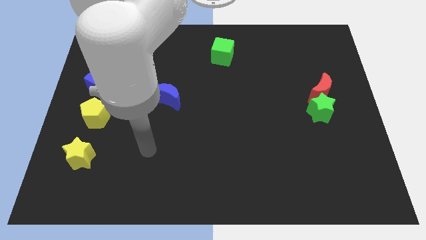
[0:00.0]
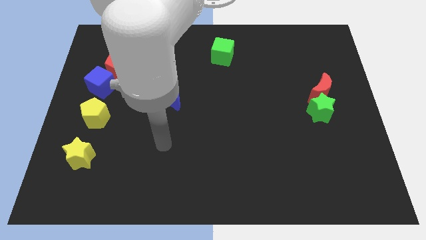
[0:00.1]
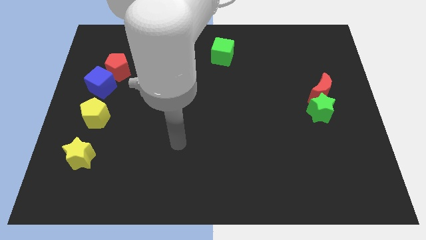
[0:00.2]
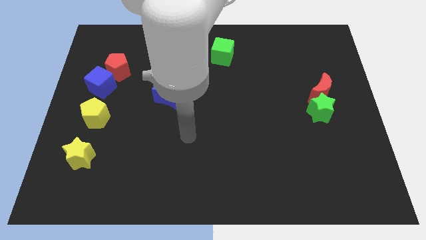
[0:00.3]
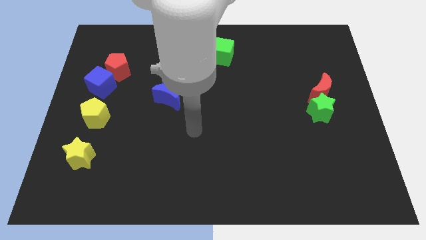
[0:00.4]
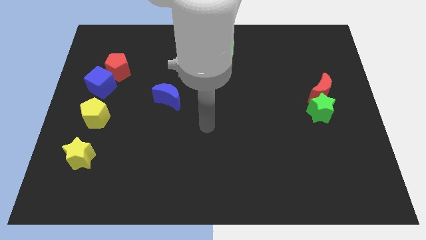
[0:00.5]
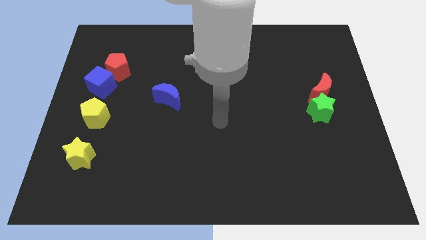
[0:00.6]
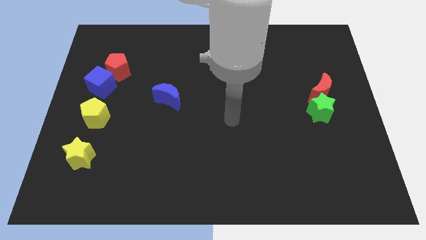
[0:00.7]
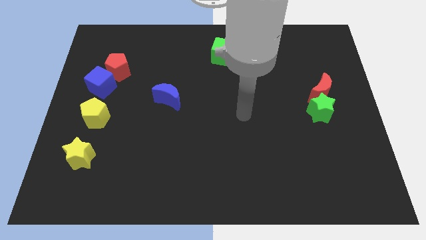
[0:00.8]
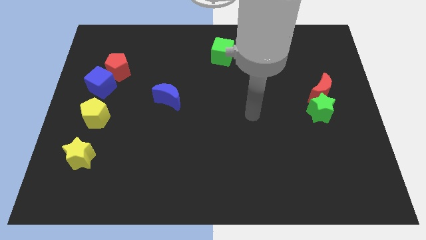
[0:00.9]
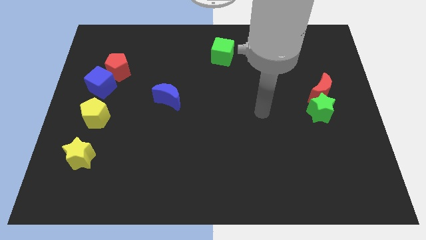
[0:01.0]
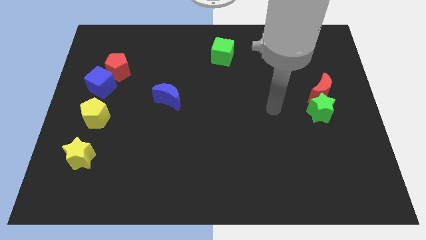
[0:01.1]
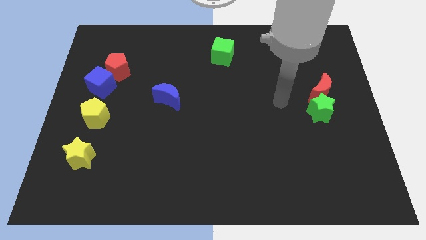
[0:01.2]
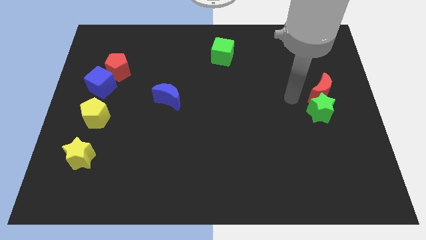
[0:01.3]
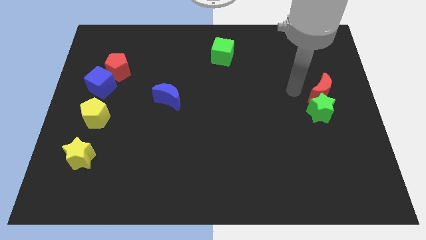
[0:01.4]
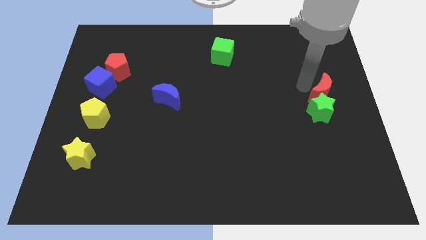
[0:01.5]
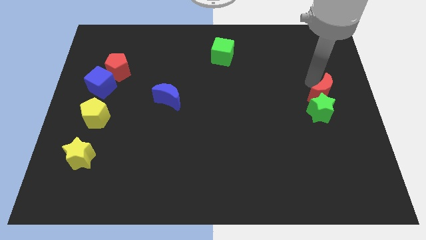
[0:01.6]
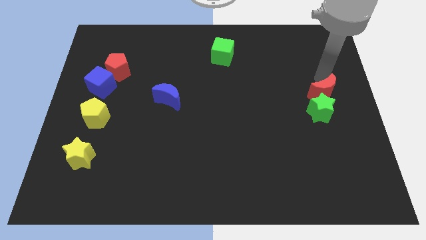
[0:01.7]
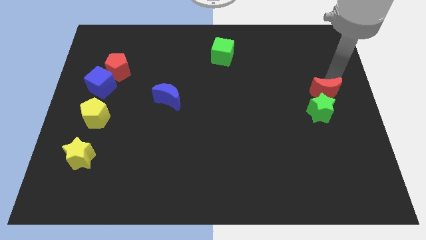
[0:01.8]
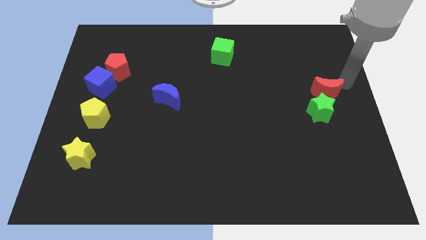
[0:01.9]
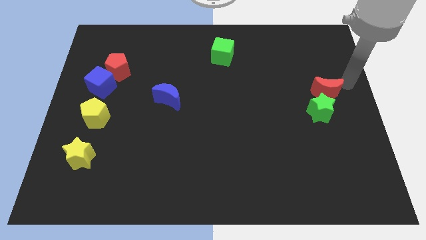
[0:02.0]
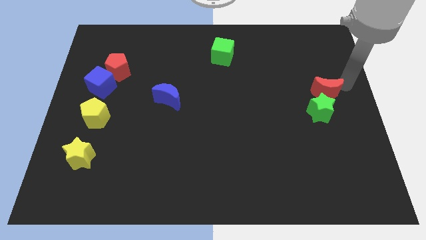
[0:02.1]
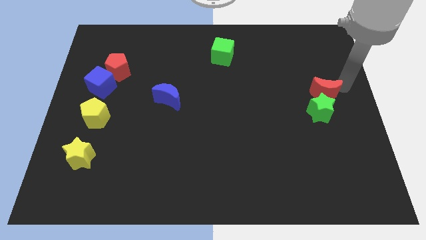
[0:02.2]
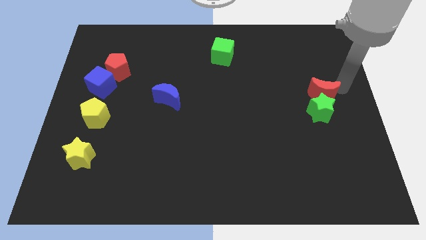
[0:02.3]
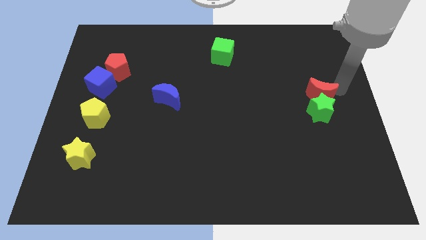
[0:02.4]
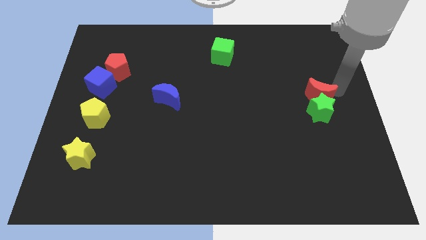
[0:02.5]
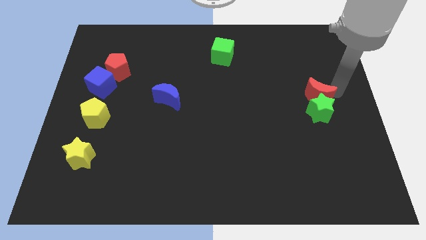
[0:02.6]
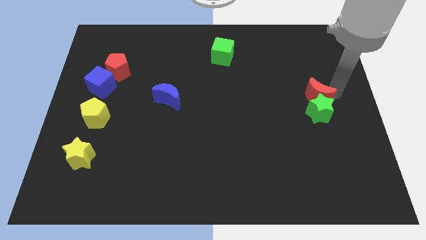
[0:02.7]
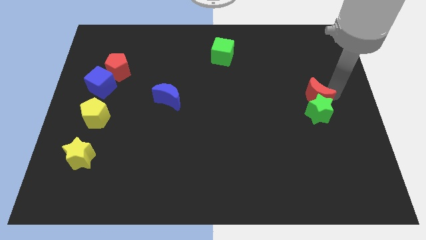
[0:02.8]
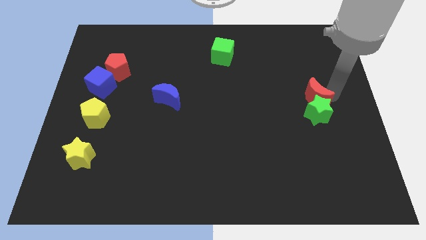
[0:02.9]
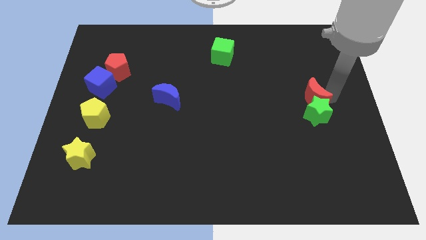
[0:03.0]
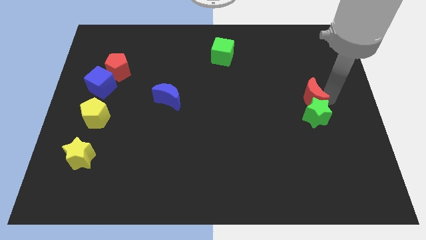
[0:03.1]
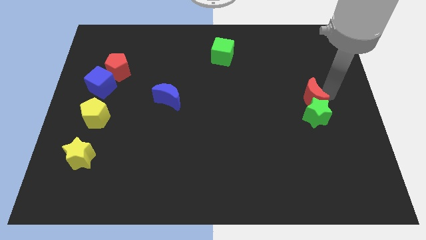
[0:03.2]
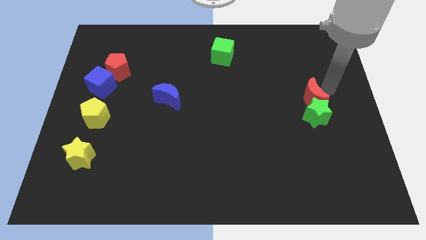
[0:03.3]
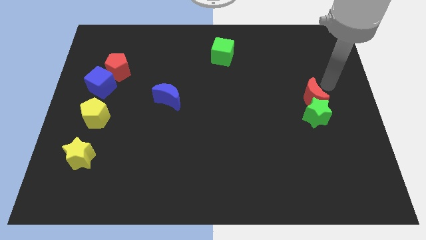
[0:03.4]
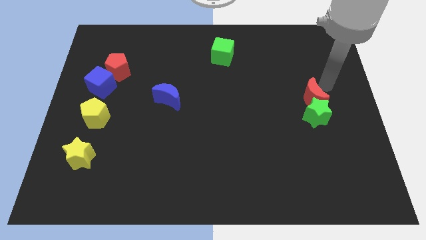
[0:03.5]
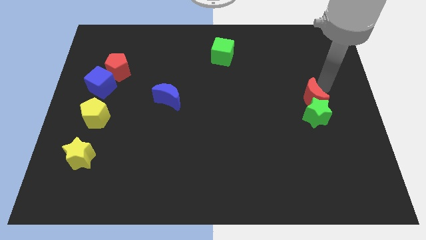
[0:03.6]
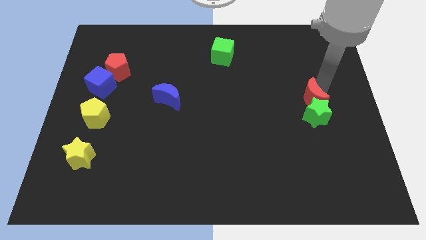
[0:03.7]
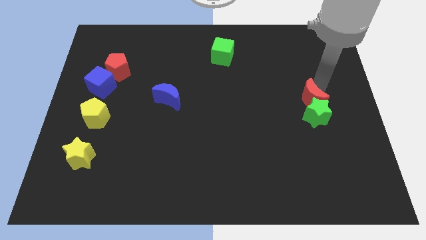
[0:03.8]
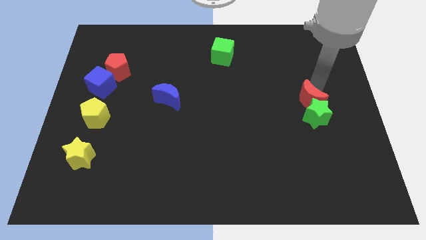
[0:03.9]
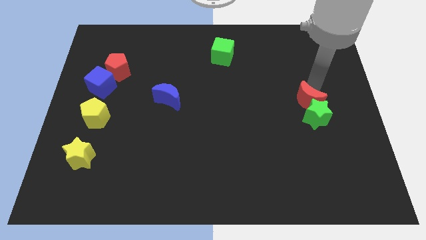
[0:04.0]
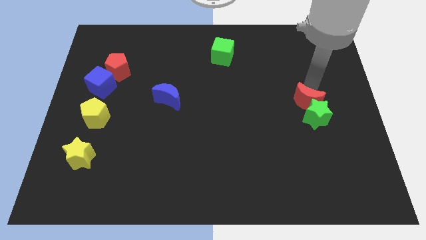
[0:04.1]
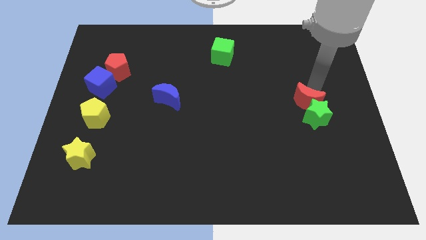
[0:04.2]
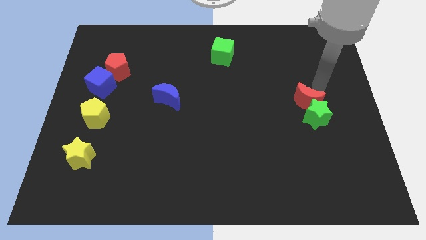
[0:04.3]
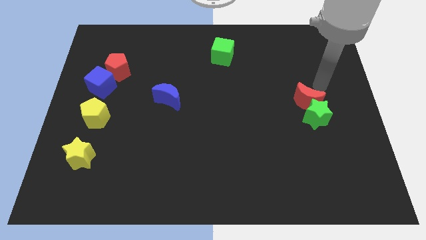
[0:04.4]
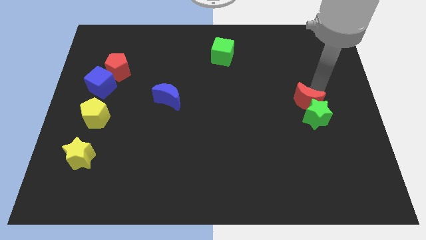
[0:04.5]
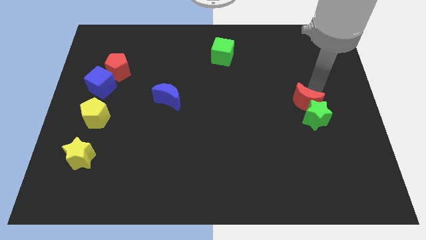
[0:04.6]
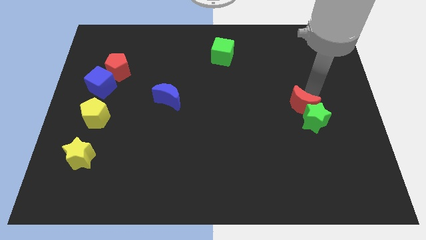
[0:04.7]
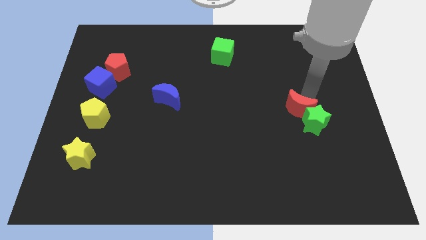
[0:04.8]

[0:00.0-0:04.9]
slightly slide the red moon down and to the left diagonally

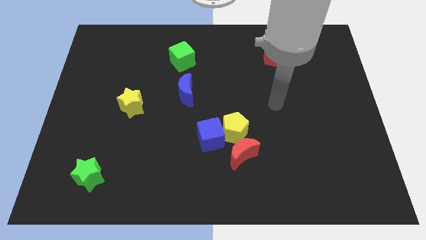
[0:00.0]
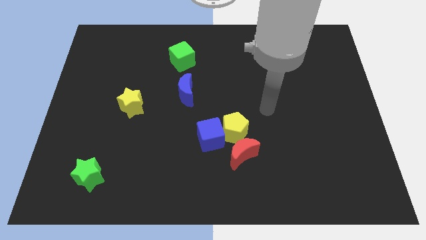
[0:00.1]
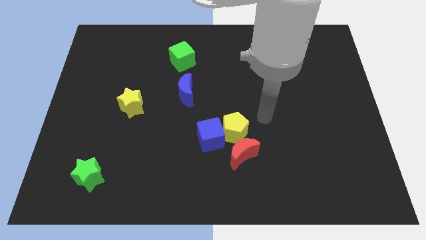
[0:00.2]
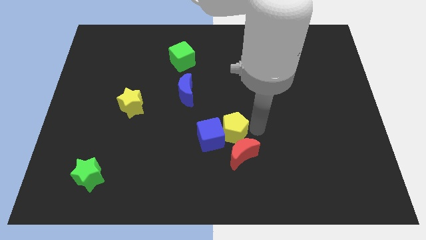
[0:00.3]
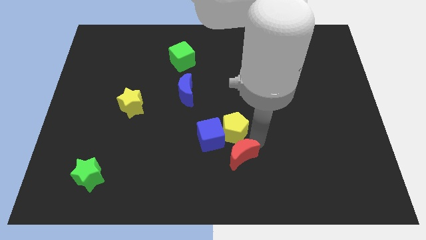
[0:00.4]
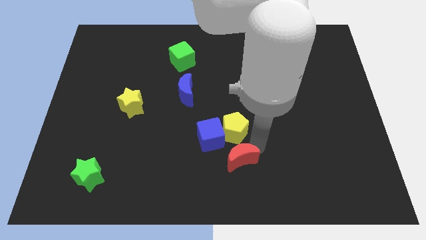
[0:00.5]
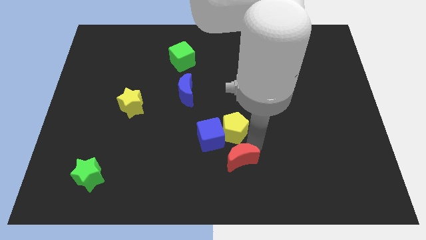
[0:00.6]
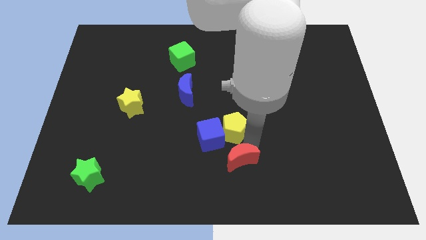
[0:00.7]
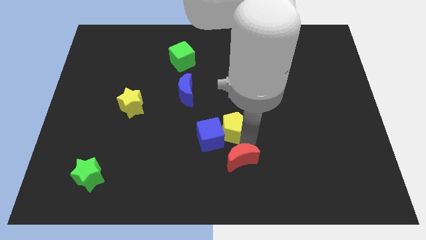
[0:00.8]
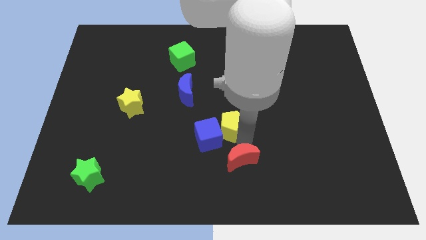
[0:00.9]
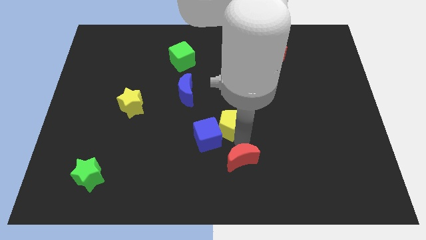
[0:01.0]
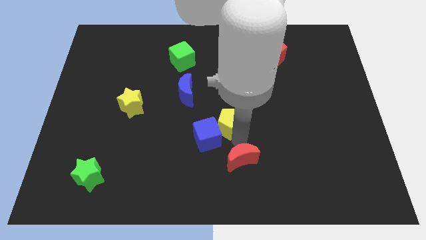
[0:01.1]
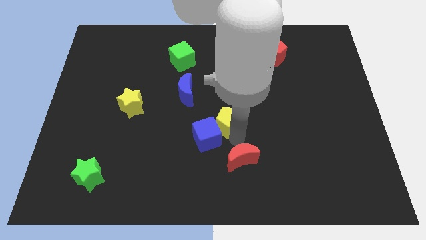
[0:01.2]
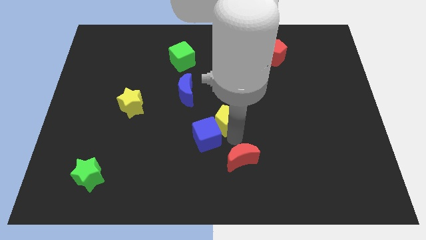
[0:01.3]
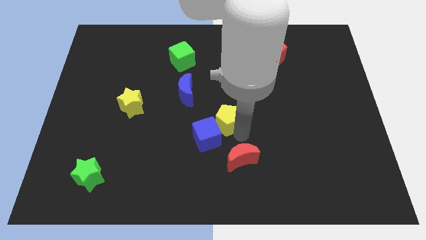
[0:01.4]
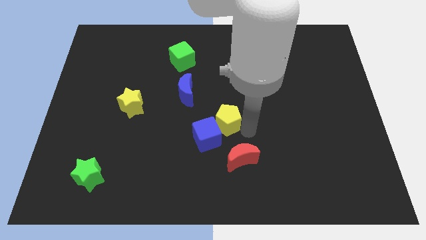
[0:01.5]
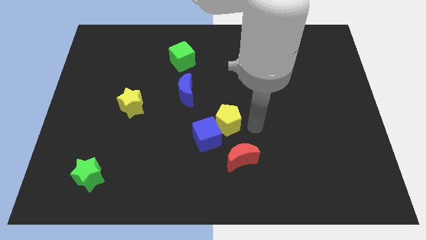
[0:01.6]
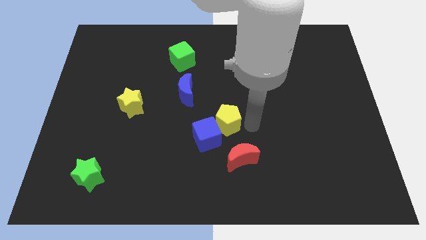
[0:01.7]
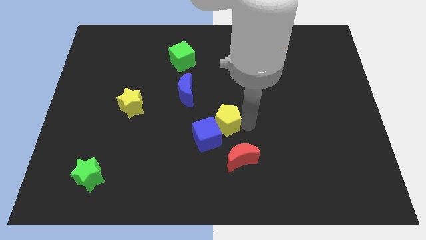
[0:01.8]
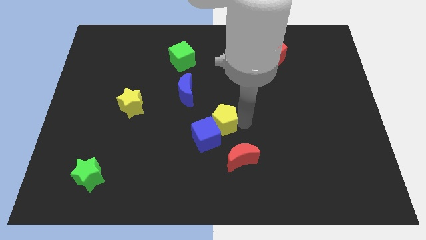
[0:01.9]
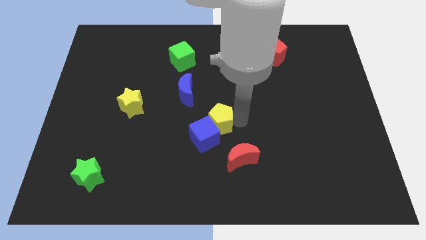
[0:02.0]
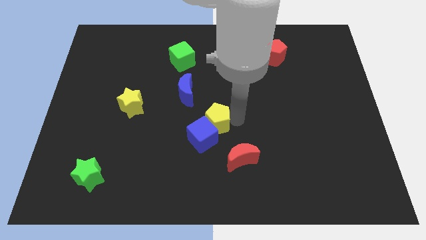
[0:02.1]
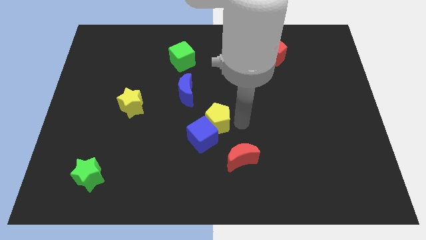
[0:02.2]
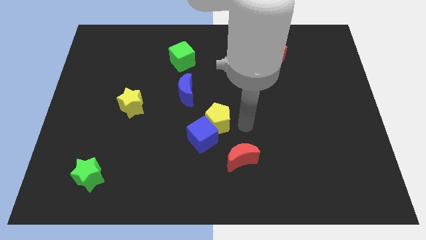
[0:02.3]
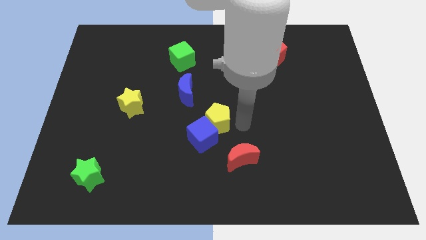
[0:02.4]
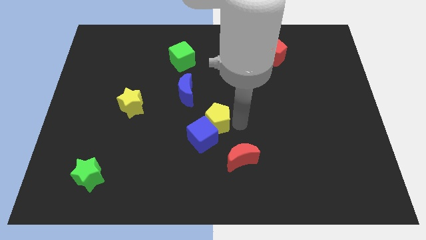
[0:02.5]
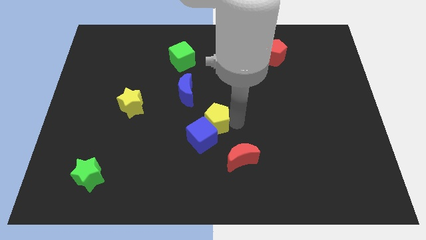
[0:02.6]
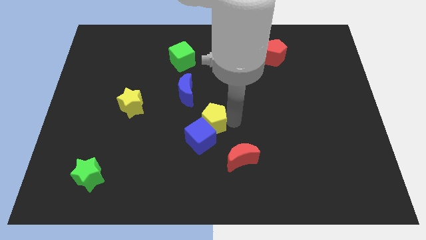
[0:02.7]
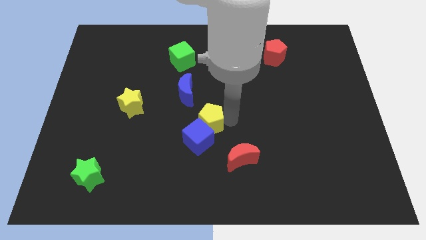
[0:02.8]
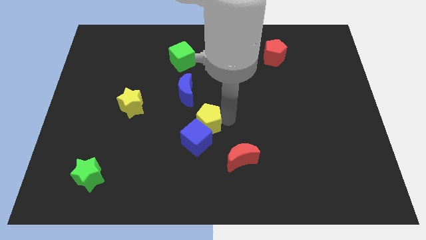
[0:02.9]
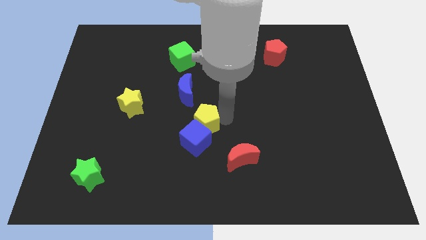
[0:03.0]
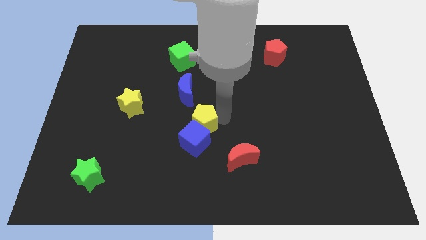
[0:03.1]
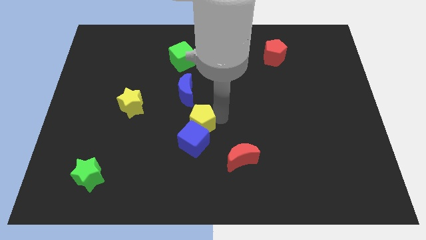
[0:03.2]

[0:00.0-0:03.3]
move the yellow pentagon left a little bit
